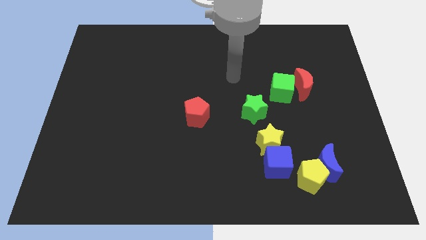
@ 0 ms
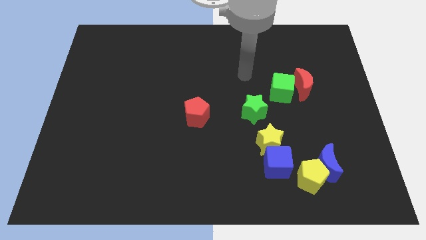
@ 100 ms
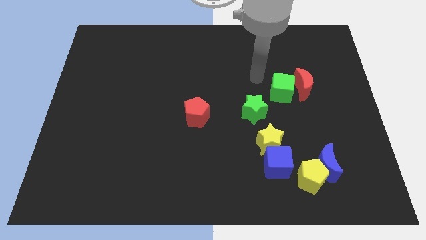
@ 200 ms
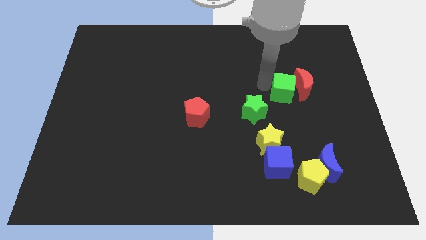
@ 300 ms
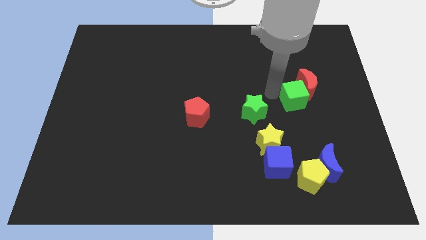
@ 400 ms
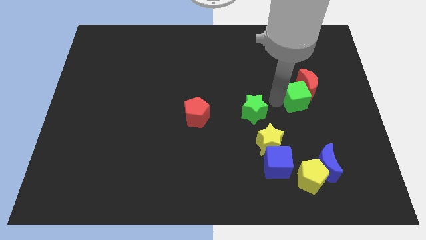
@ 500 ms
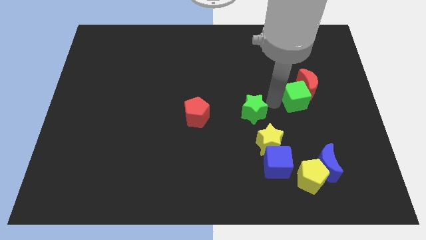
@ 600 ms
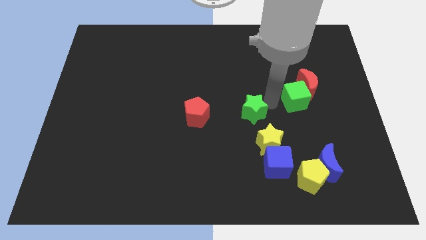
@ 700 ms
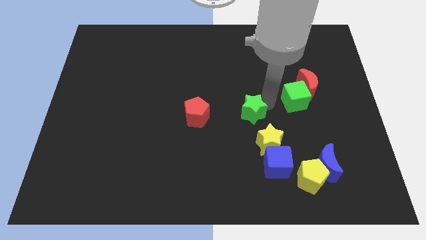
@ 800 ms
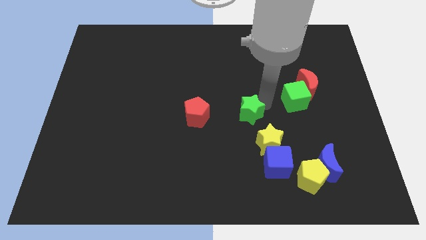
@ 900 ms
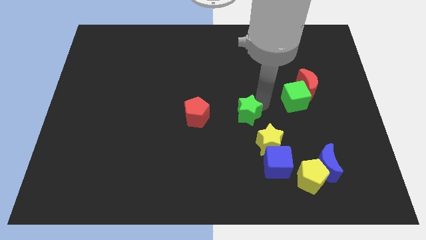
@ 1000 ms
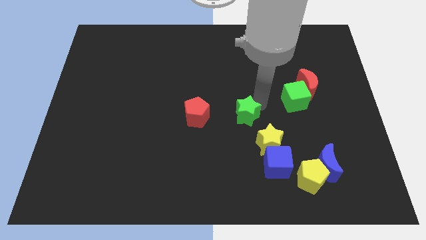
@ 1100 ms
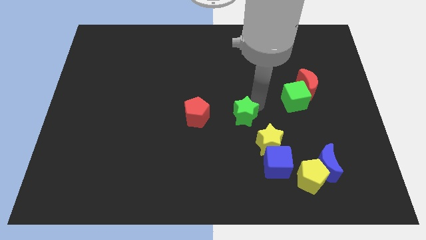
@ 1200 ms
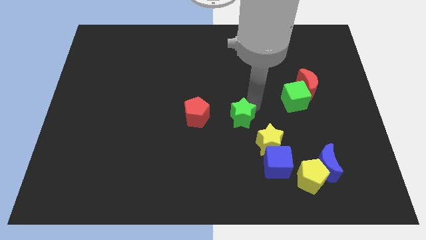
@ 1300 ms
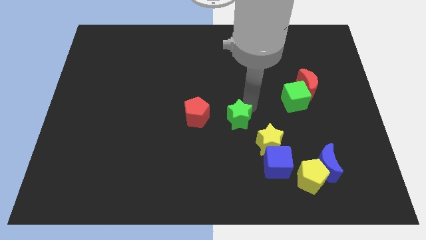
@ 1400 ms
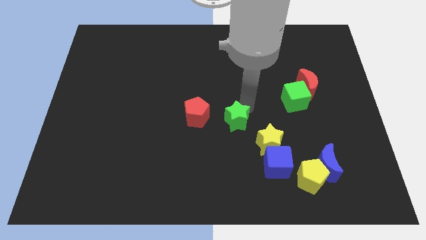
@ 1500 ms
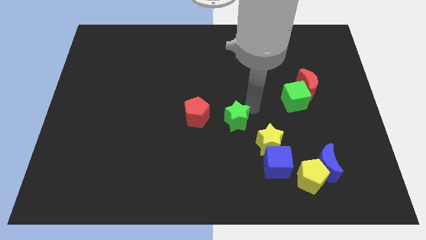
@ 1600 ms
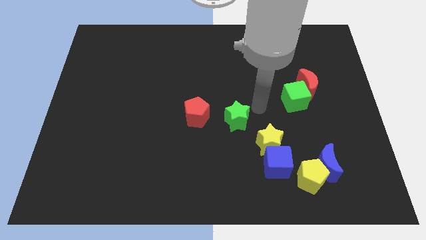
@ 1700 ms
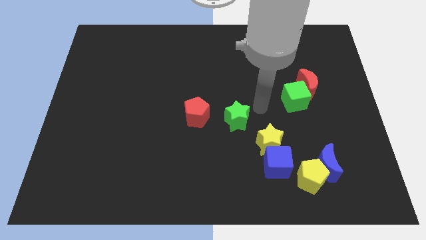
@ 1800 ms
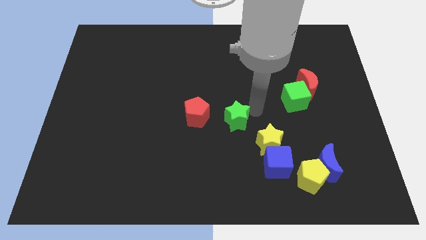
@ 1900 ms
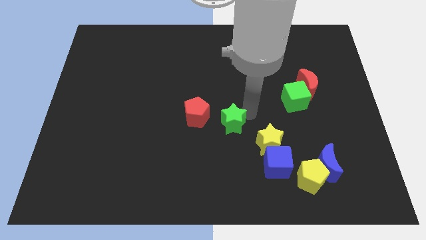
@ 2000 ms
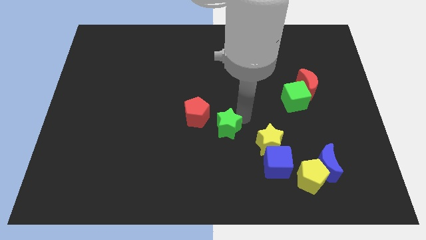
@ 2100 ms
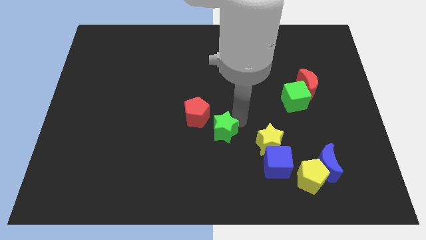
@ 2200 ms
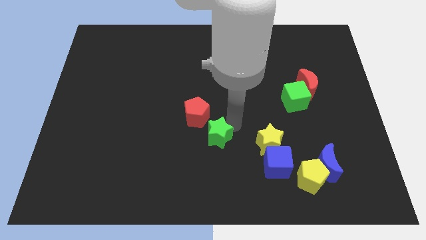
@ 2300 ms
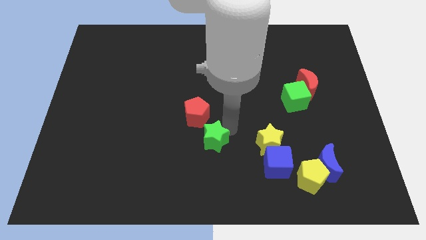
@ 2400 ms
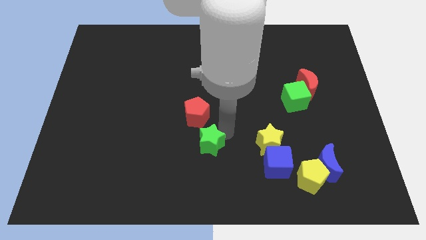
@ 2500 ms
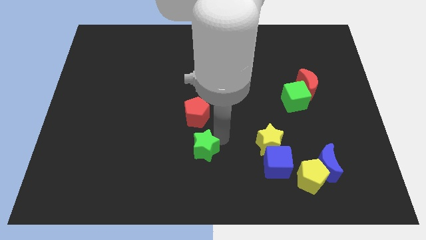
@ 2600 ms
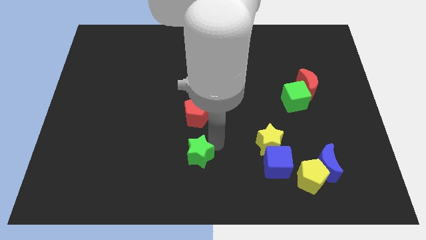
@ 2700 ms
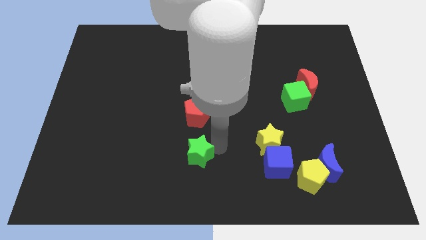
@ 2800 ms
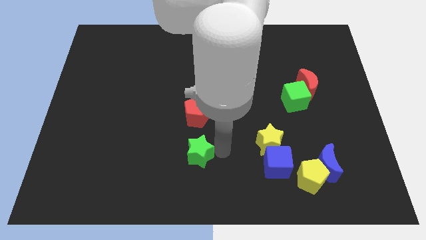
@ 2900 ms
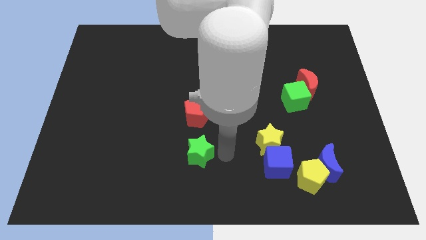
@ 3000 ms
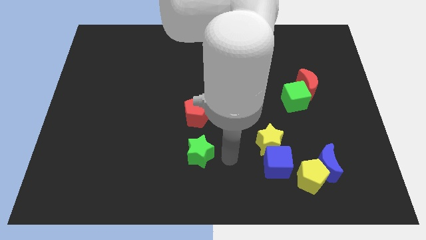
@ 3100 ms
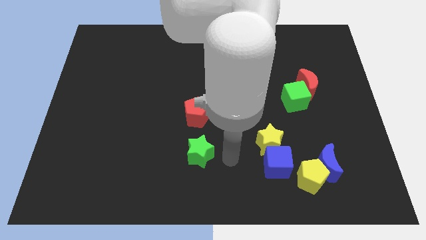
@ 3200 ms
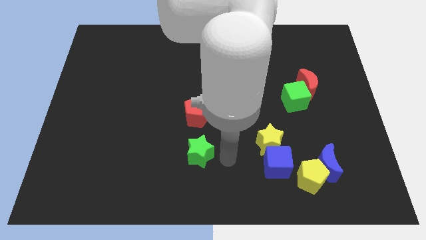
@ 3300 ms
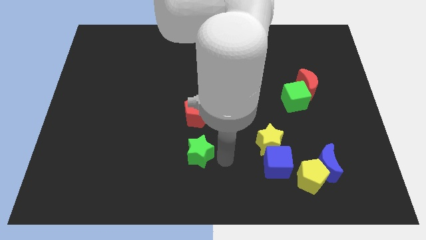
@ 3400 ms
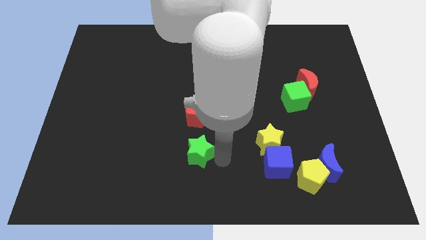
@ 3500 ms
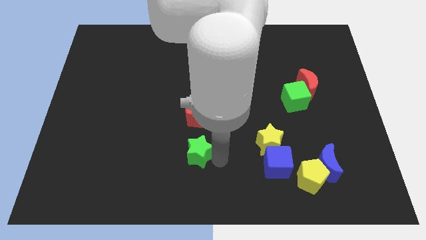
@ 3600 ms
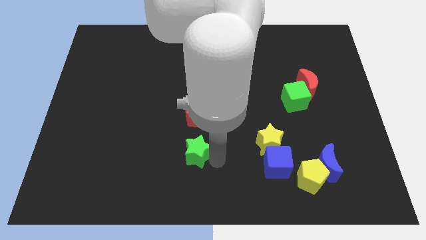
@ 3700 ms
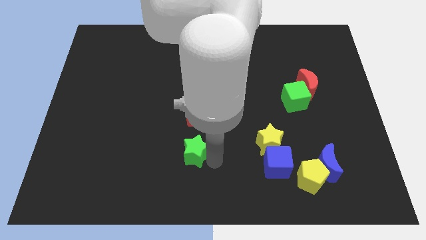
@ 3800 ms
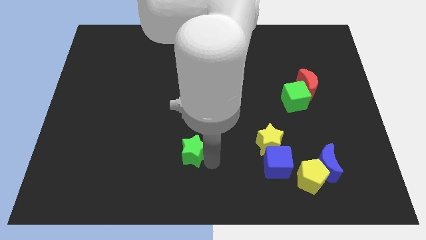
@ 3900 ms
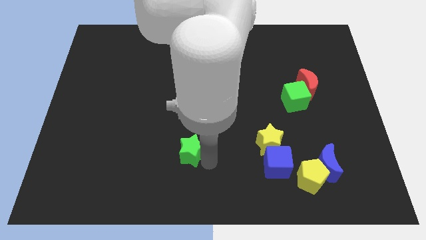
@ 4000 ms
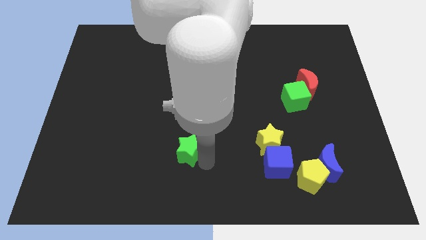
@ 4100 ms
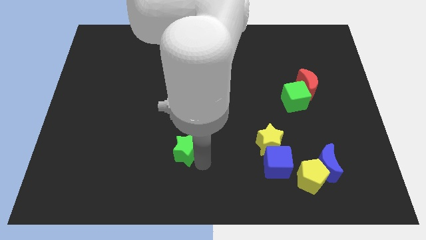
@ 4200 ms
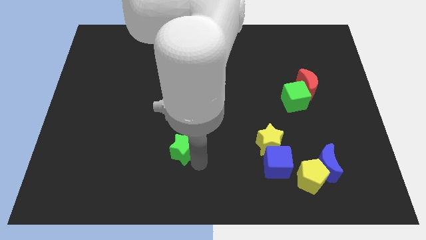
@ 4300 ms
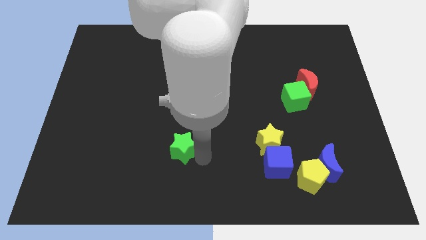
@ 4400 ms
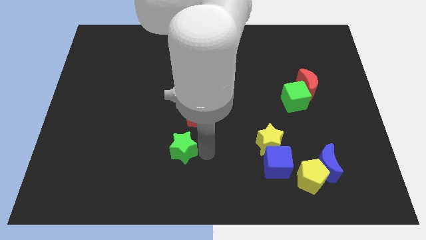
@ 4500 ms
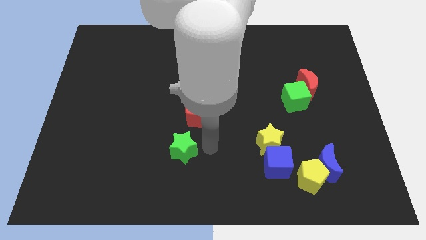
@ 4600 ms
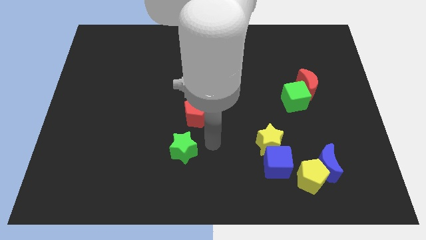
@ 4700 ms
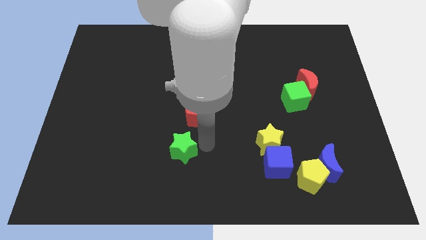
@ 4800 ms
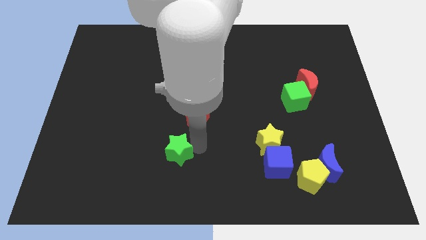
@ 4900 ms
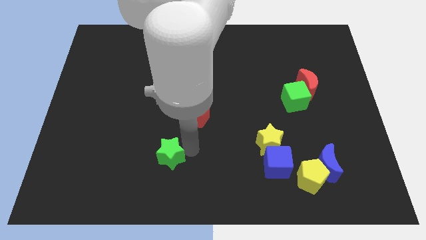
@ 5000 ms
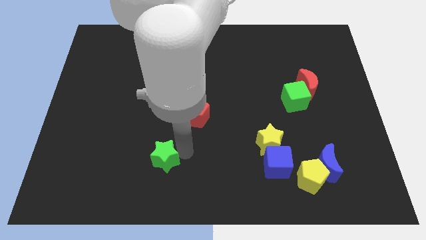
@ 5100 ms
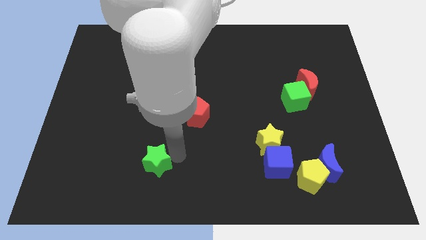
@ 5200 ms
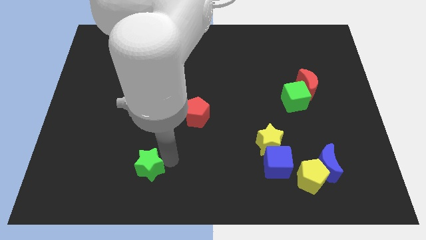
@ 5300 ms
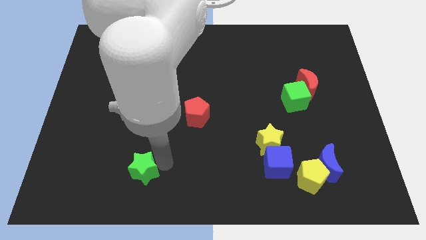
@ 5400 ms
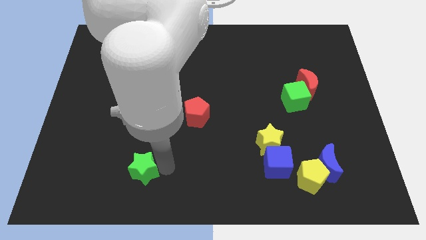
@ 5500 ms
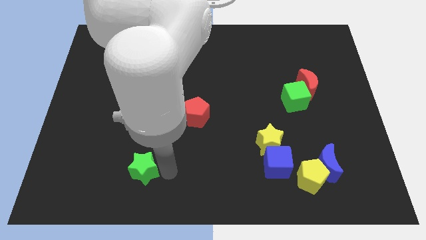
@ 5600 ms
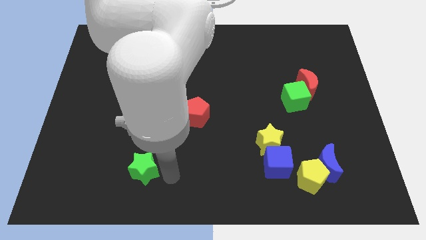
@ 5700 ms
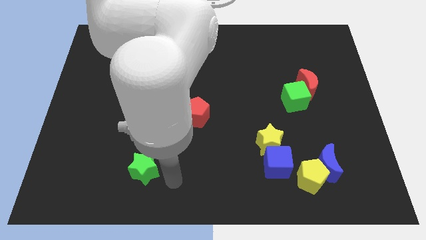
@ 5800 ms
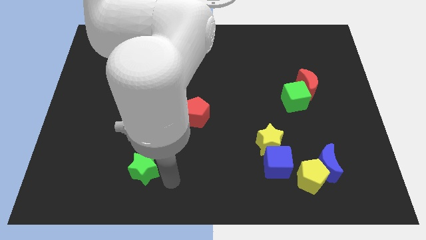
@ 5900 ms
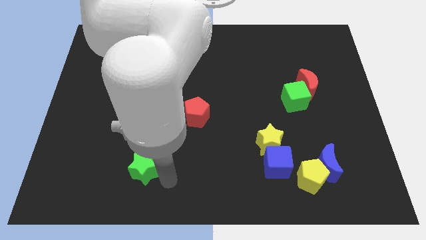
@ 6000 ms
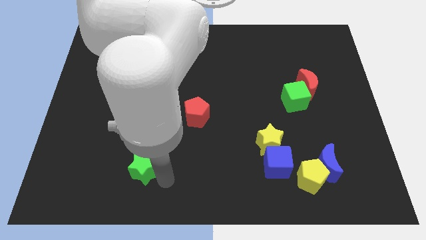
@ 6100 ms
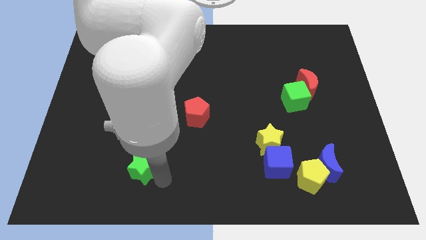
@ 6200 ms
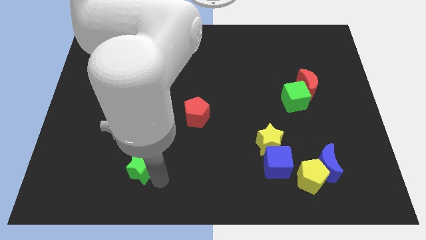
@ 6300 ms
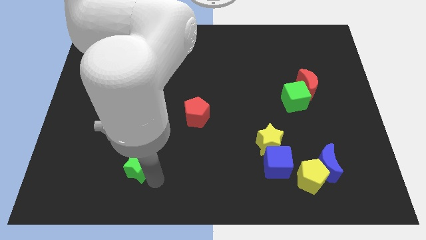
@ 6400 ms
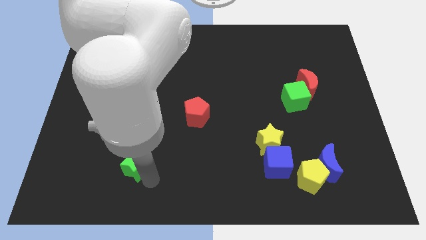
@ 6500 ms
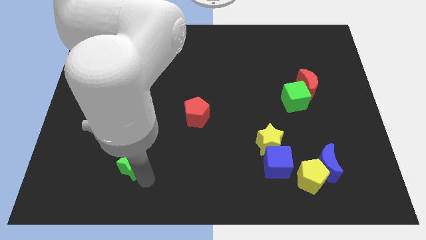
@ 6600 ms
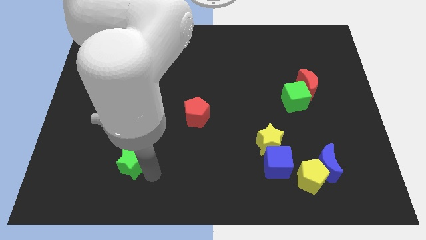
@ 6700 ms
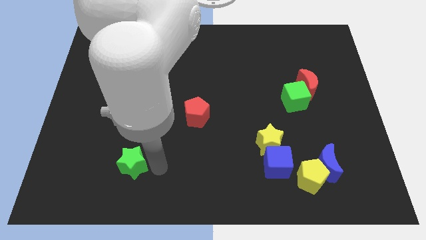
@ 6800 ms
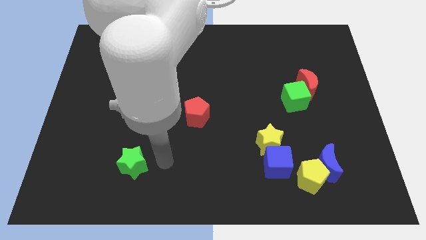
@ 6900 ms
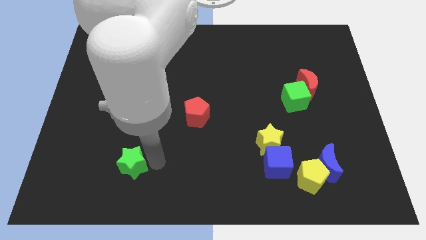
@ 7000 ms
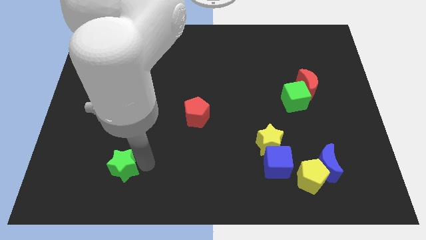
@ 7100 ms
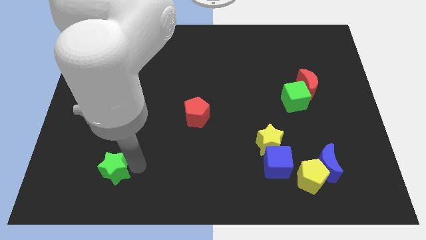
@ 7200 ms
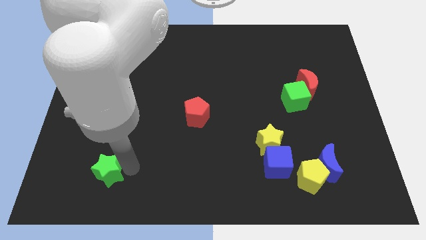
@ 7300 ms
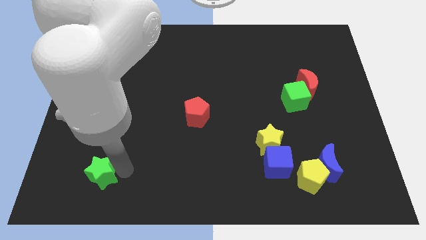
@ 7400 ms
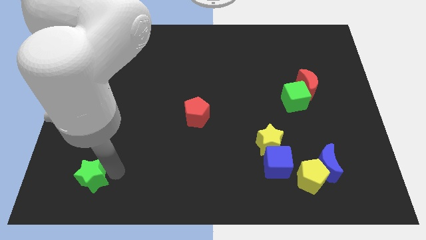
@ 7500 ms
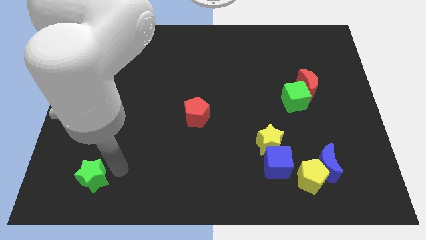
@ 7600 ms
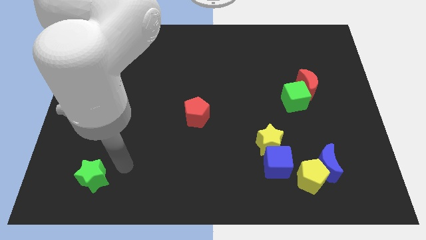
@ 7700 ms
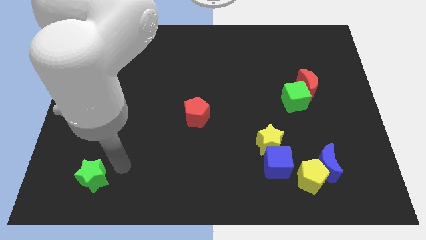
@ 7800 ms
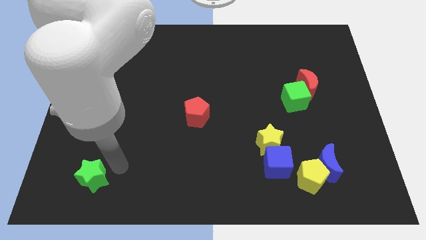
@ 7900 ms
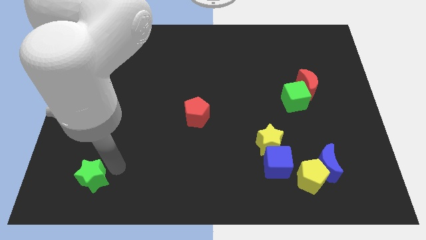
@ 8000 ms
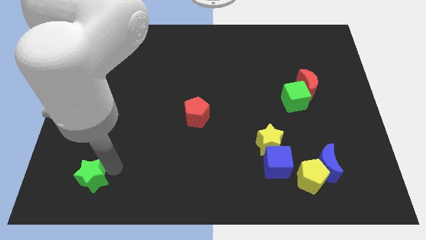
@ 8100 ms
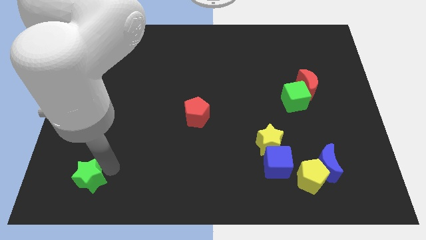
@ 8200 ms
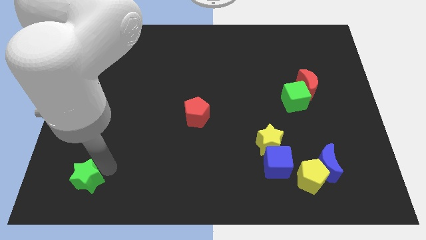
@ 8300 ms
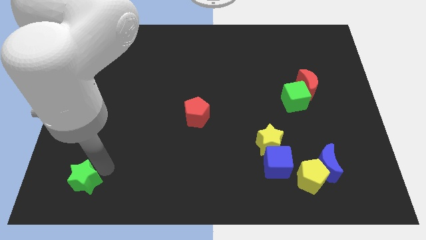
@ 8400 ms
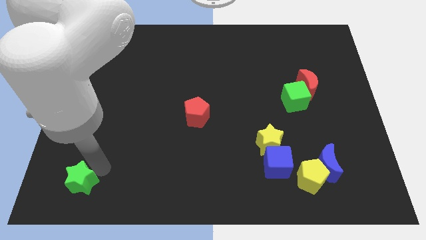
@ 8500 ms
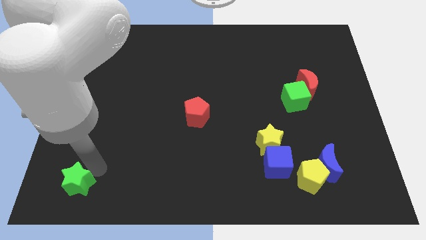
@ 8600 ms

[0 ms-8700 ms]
push the green star to the lower left corner
